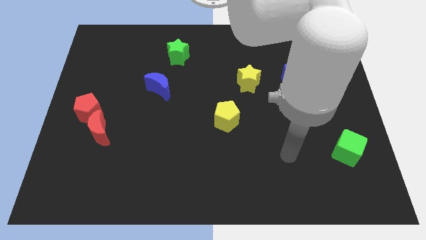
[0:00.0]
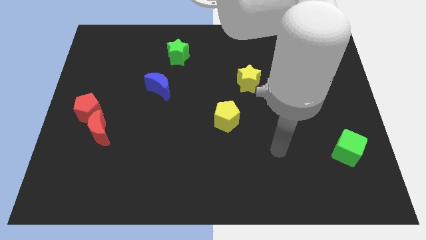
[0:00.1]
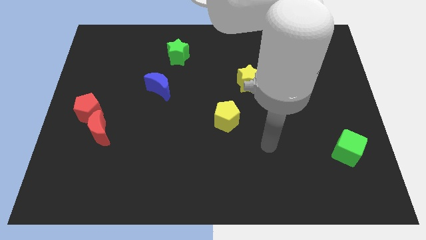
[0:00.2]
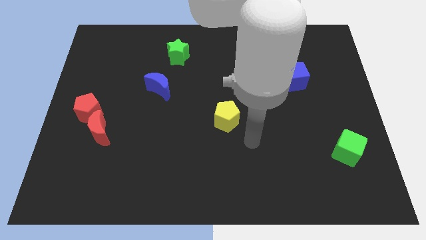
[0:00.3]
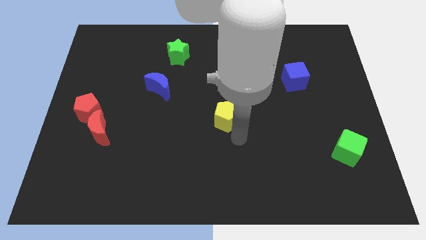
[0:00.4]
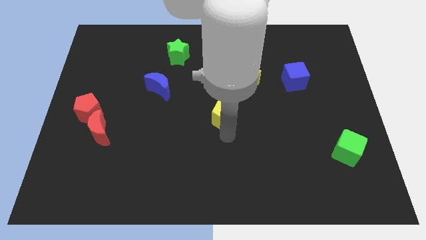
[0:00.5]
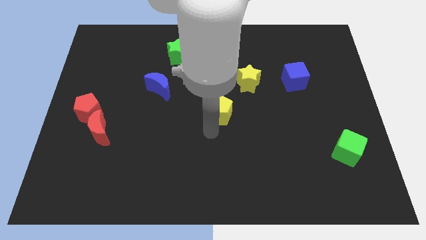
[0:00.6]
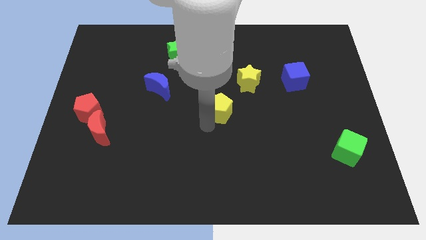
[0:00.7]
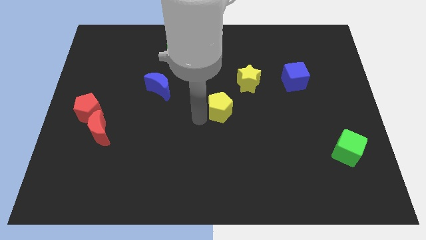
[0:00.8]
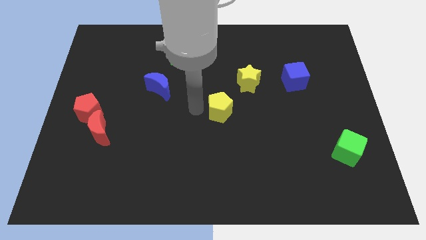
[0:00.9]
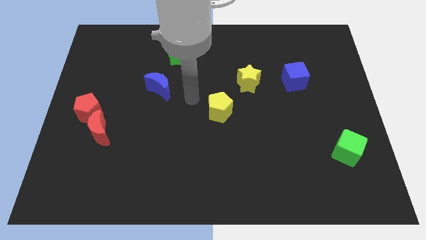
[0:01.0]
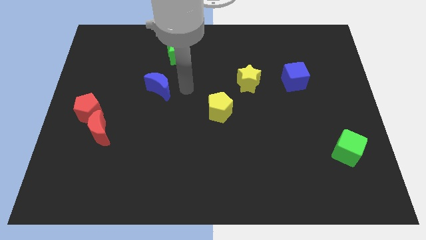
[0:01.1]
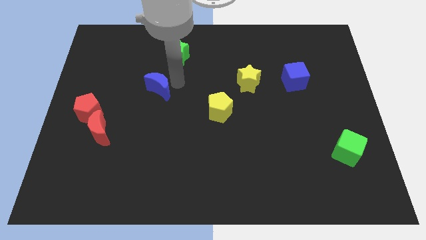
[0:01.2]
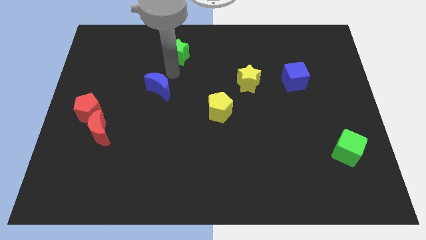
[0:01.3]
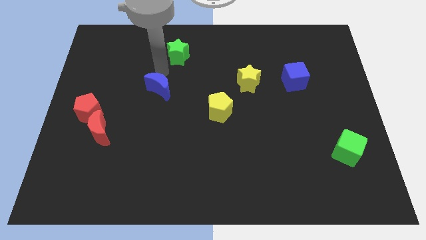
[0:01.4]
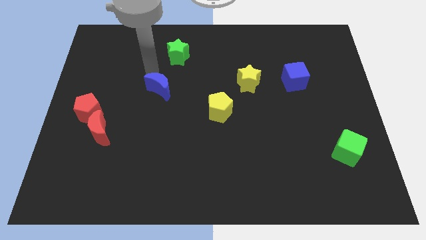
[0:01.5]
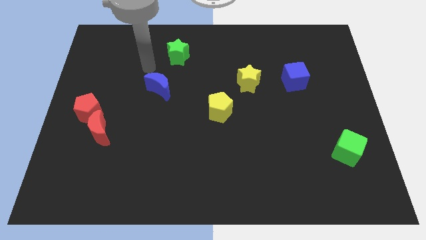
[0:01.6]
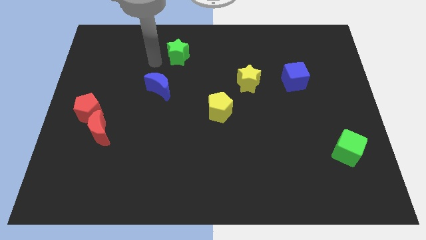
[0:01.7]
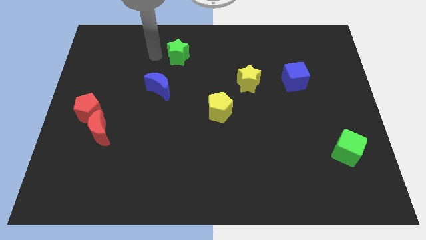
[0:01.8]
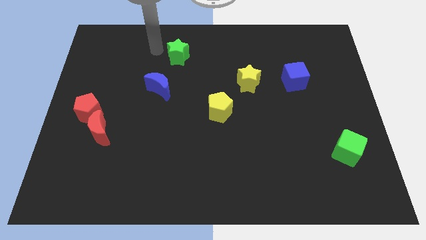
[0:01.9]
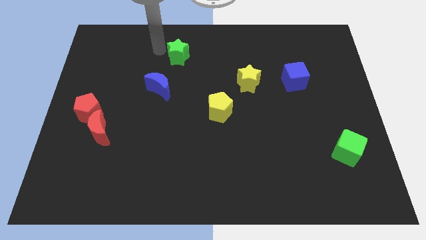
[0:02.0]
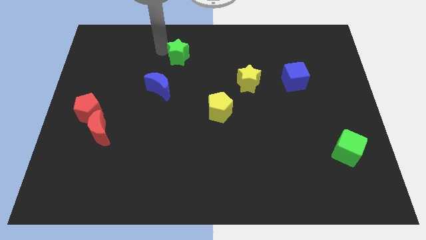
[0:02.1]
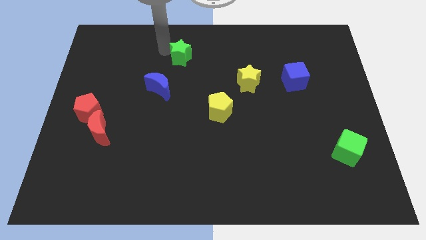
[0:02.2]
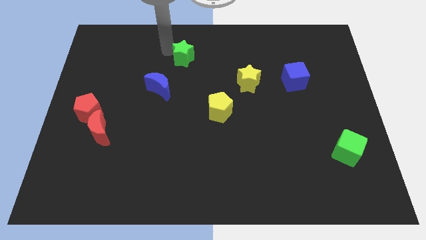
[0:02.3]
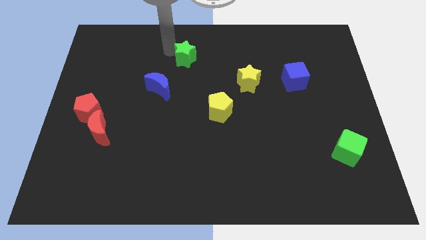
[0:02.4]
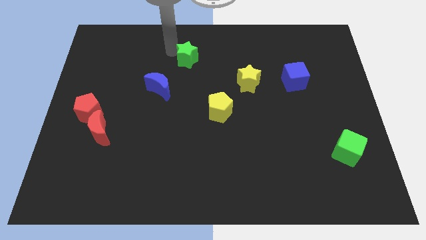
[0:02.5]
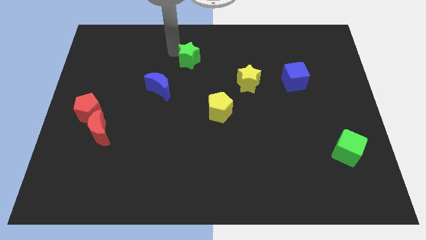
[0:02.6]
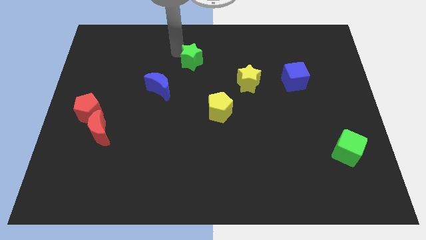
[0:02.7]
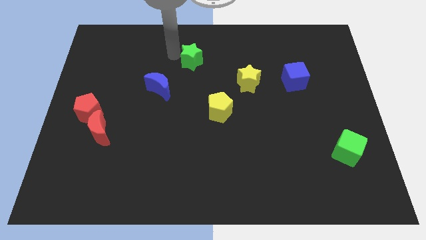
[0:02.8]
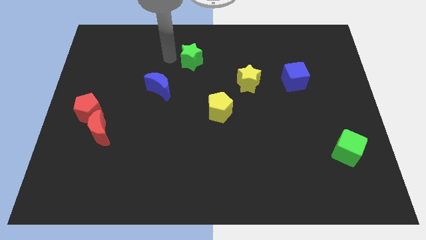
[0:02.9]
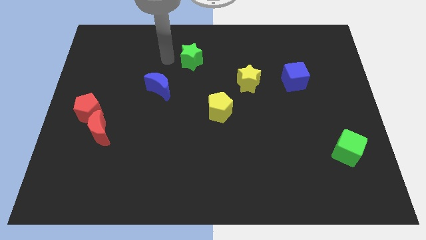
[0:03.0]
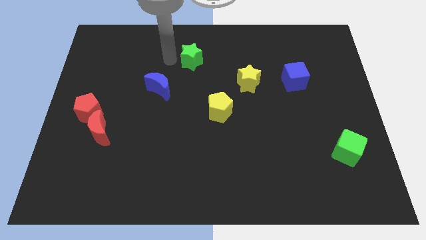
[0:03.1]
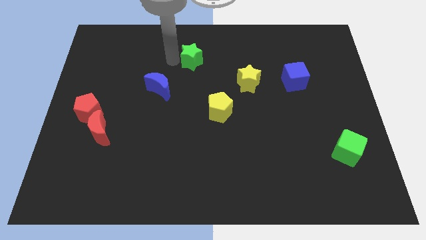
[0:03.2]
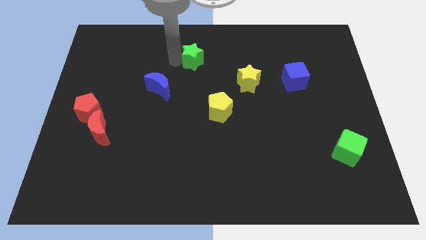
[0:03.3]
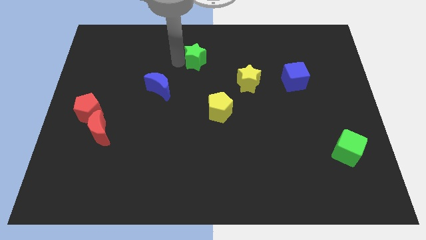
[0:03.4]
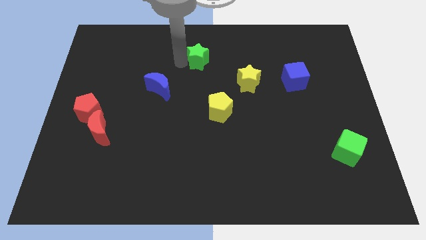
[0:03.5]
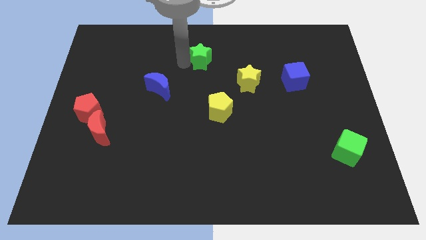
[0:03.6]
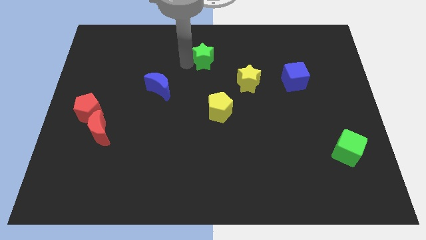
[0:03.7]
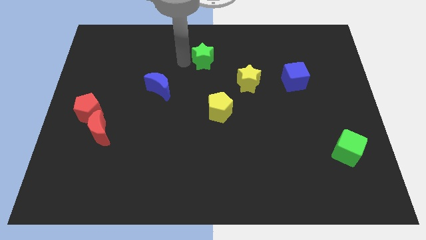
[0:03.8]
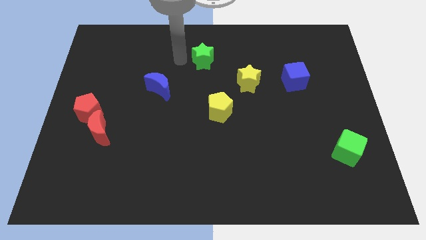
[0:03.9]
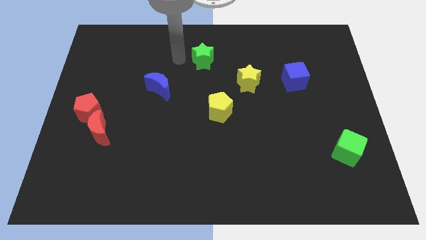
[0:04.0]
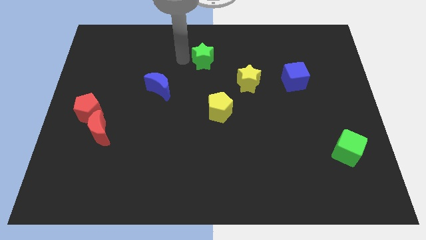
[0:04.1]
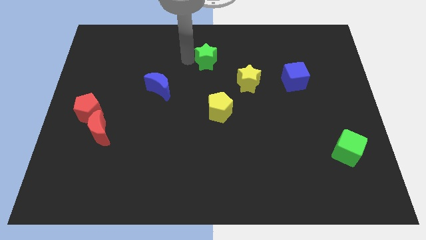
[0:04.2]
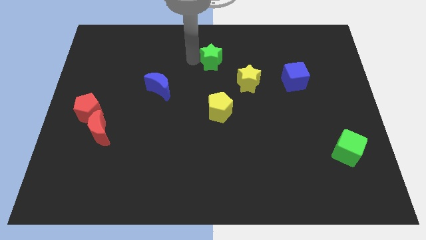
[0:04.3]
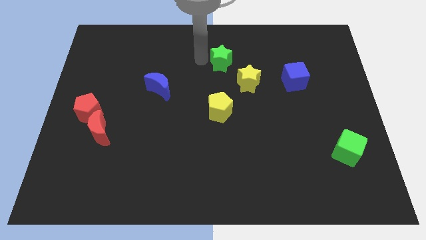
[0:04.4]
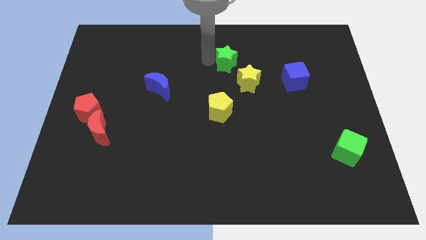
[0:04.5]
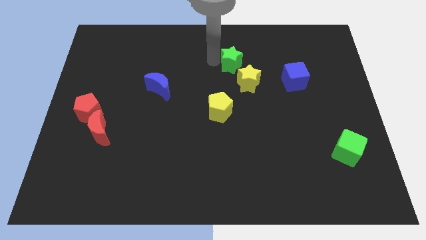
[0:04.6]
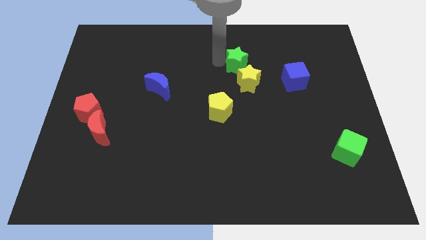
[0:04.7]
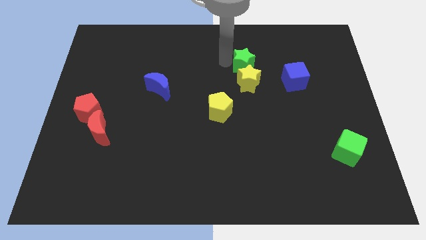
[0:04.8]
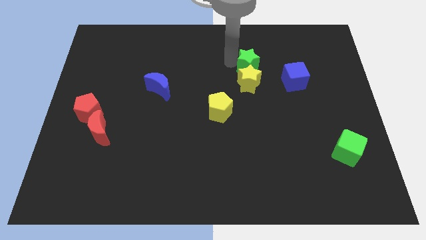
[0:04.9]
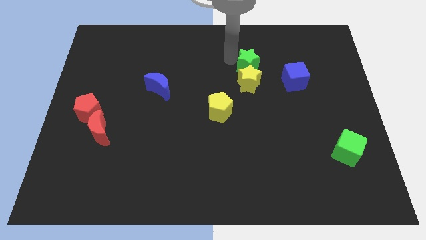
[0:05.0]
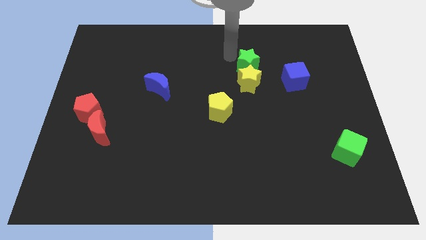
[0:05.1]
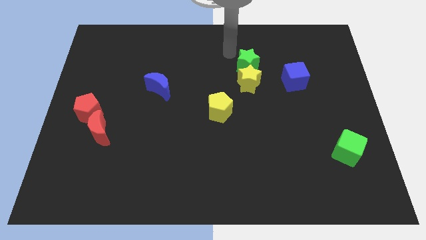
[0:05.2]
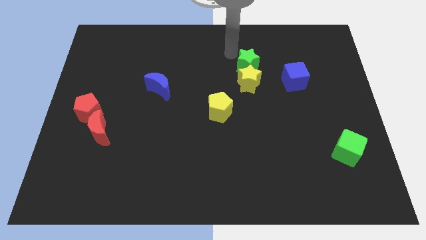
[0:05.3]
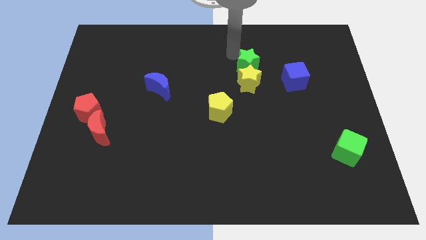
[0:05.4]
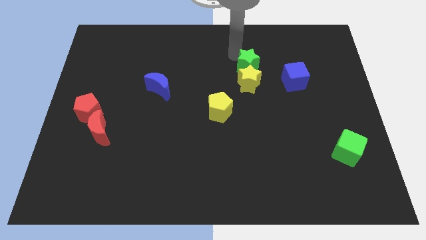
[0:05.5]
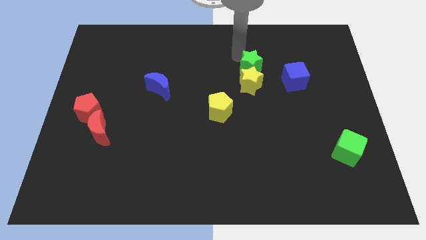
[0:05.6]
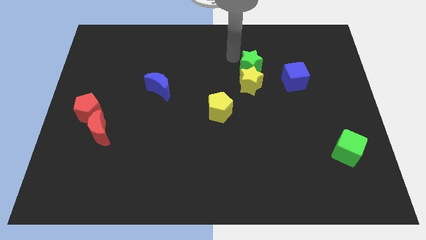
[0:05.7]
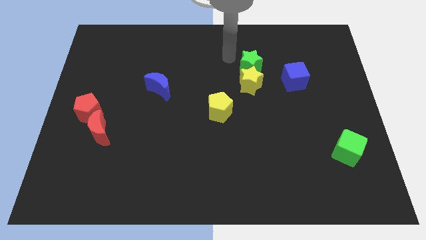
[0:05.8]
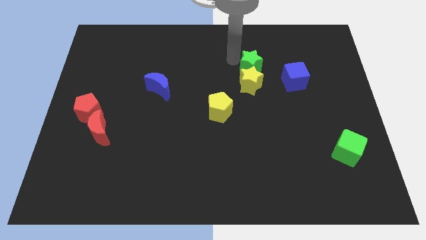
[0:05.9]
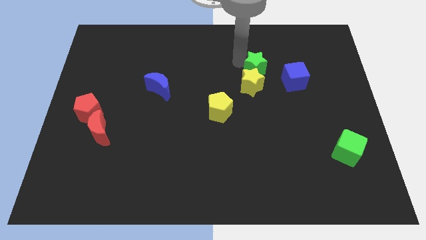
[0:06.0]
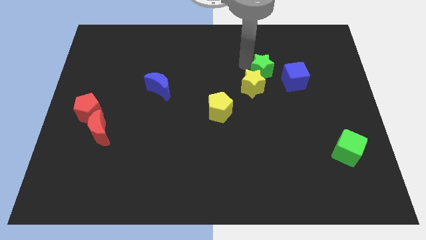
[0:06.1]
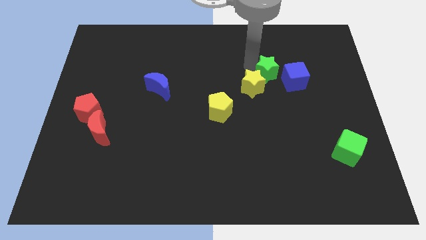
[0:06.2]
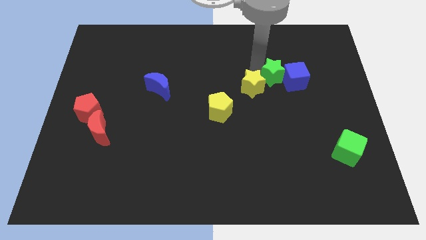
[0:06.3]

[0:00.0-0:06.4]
move the green star next to the blue cube

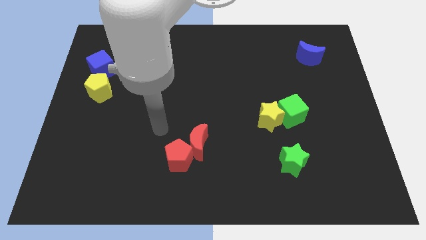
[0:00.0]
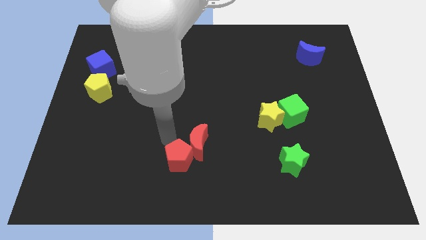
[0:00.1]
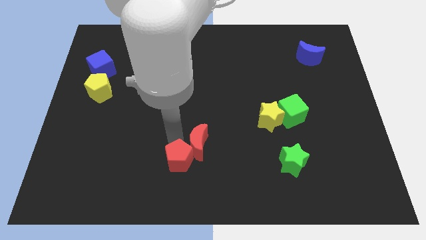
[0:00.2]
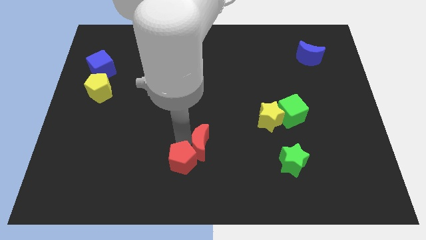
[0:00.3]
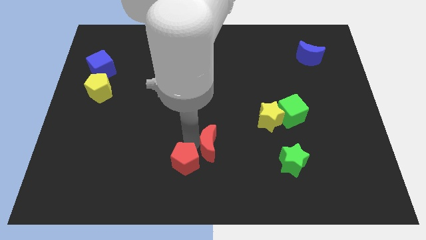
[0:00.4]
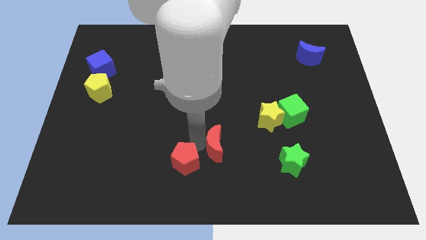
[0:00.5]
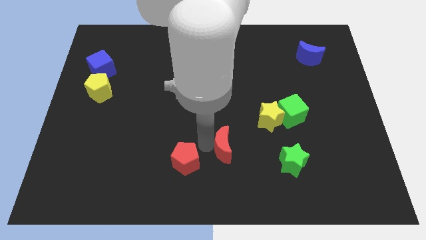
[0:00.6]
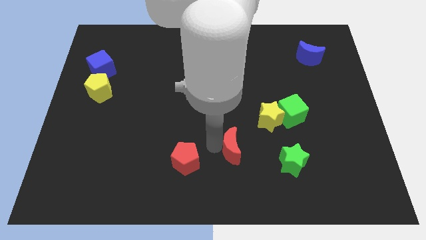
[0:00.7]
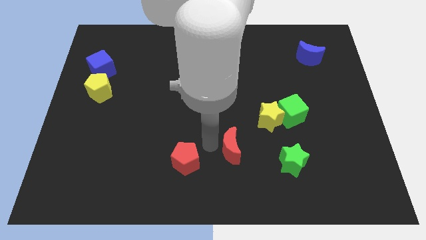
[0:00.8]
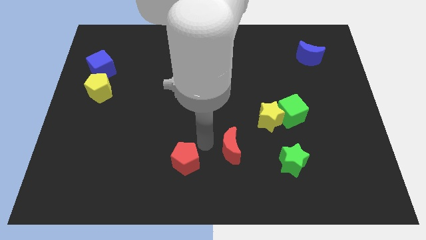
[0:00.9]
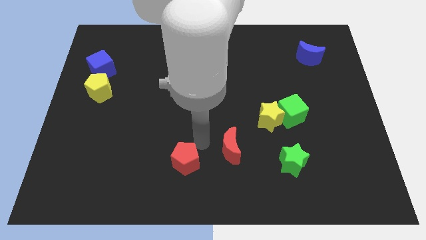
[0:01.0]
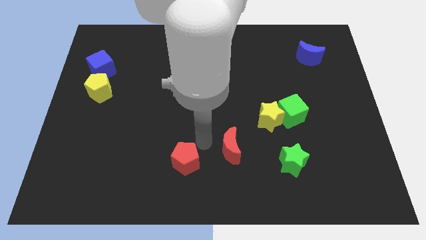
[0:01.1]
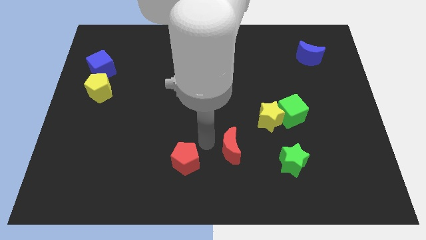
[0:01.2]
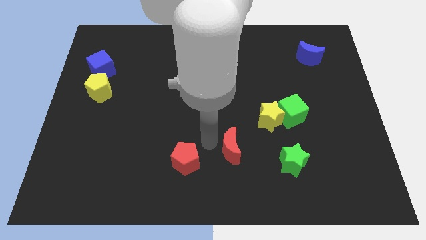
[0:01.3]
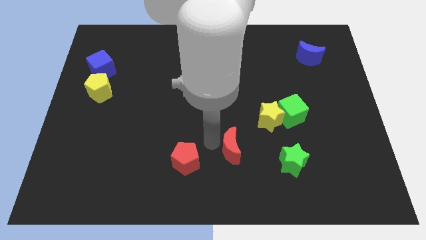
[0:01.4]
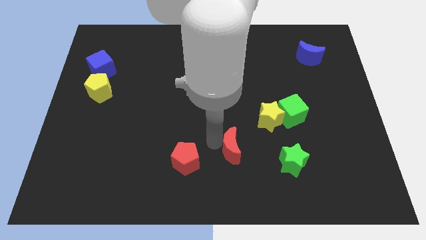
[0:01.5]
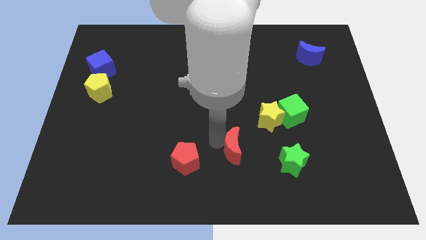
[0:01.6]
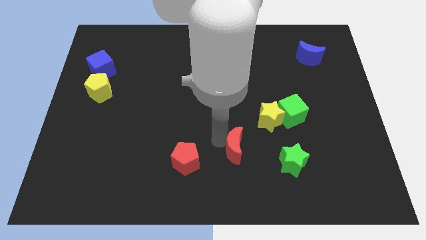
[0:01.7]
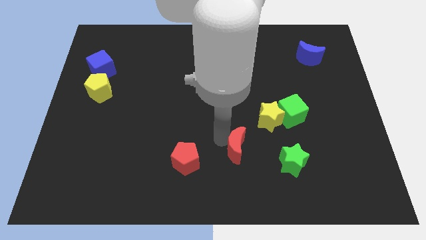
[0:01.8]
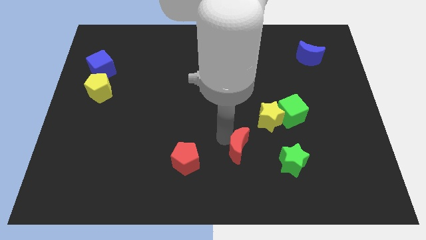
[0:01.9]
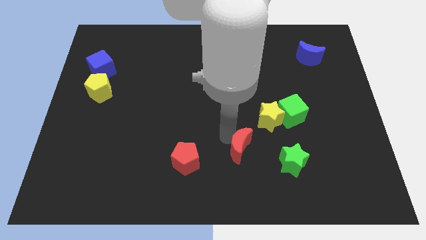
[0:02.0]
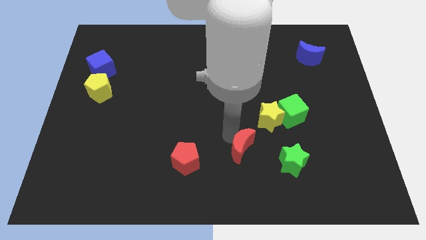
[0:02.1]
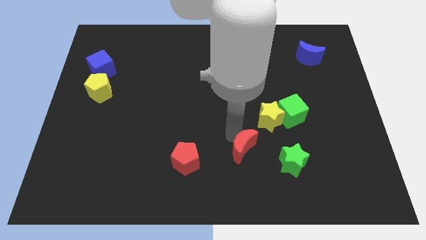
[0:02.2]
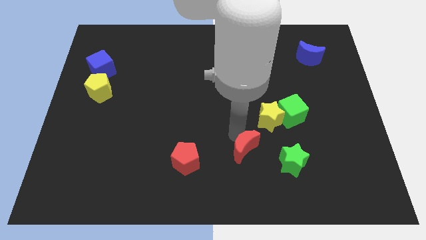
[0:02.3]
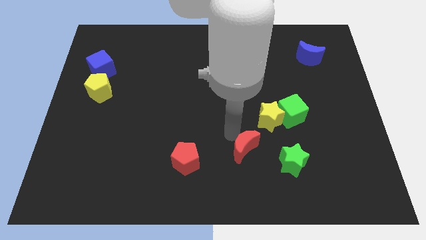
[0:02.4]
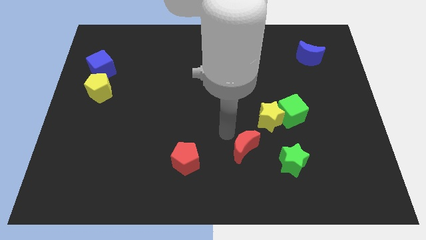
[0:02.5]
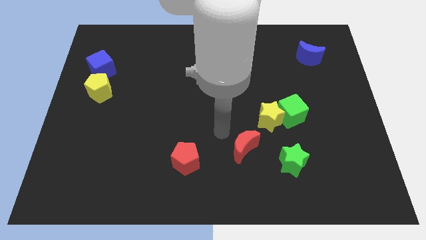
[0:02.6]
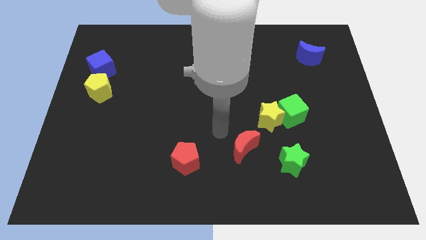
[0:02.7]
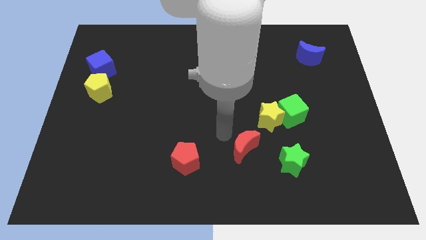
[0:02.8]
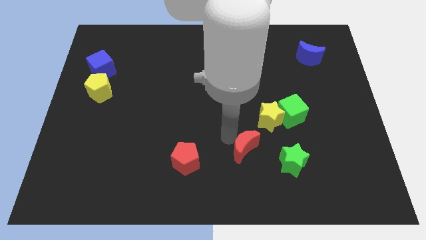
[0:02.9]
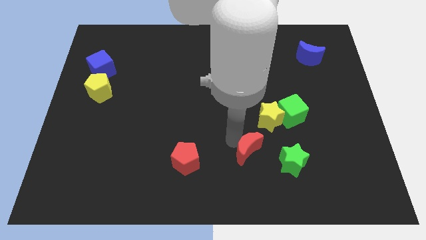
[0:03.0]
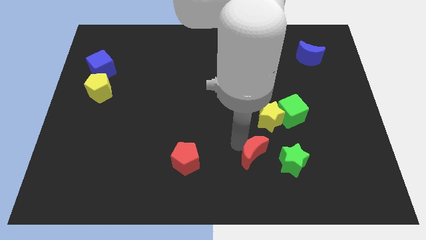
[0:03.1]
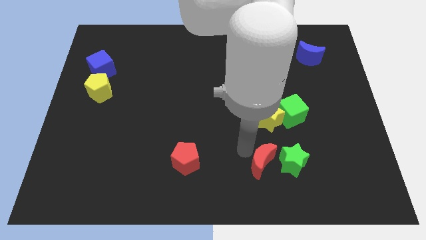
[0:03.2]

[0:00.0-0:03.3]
slide the red moon next to the green star
